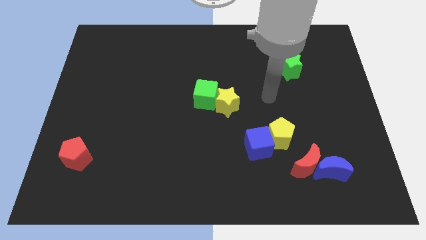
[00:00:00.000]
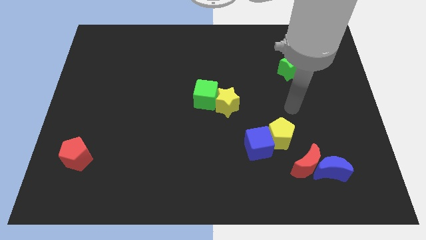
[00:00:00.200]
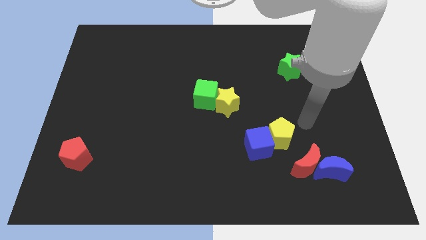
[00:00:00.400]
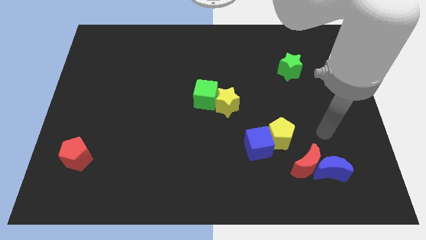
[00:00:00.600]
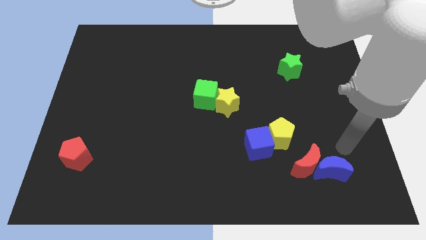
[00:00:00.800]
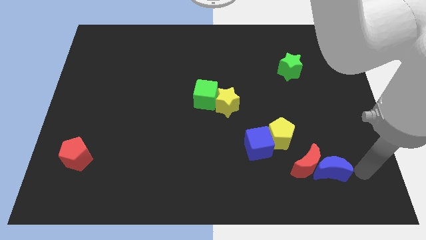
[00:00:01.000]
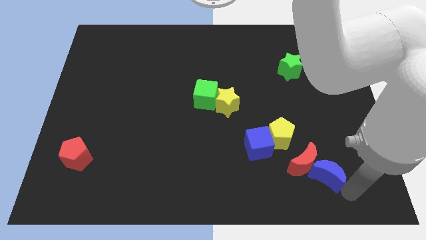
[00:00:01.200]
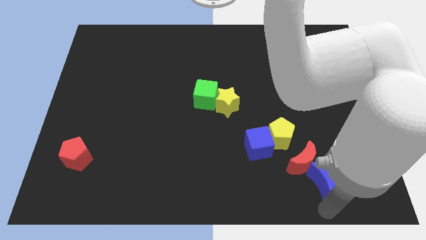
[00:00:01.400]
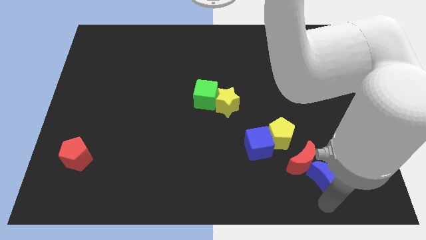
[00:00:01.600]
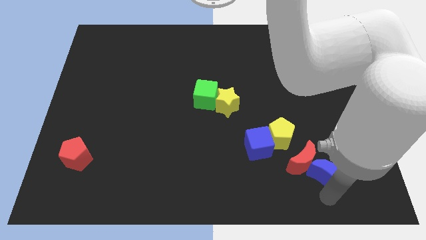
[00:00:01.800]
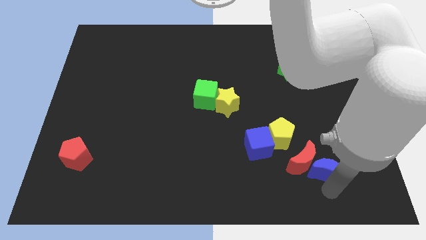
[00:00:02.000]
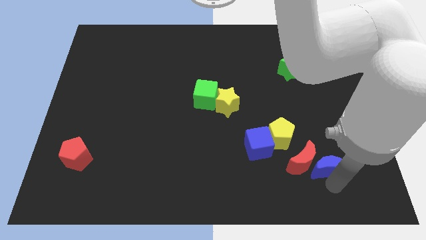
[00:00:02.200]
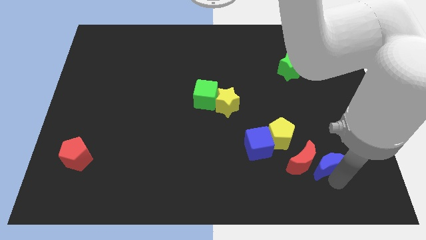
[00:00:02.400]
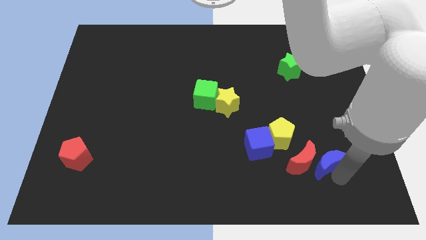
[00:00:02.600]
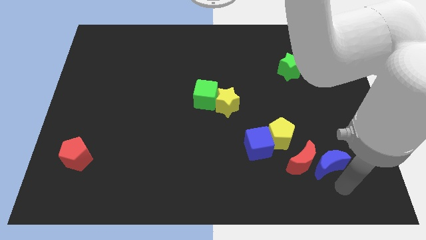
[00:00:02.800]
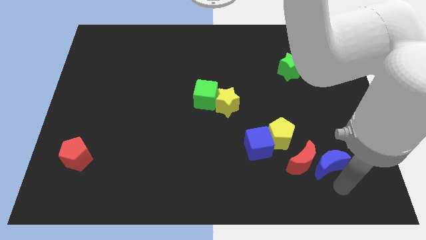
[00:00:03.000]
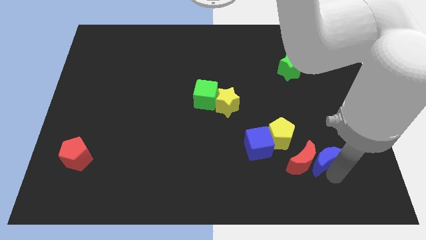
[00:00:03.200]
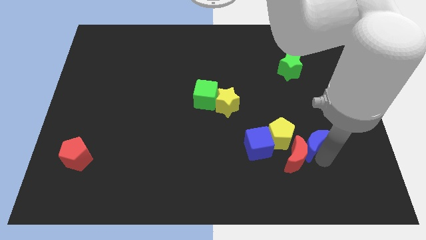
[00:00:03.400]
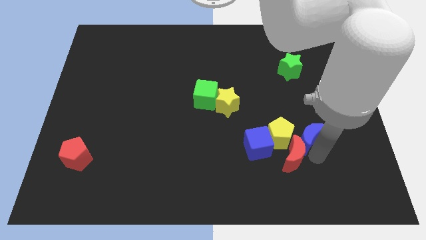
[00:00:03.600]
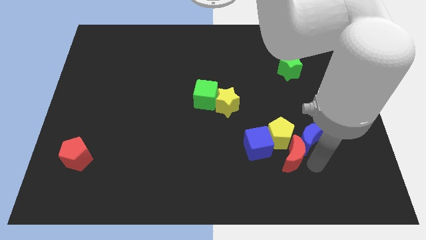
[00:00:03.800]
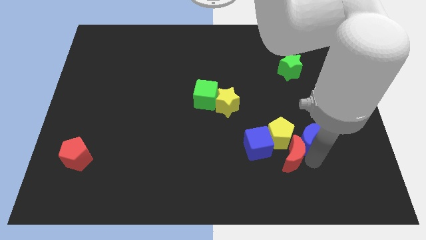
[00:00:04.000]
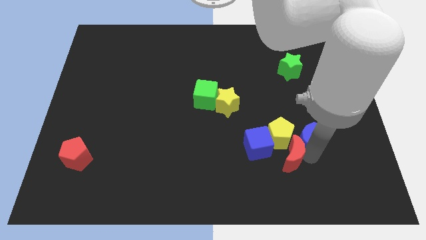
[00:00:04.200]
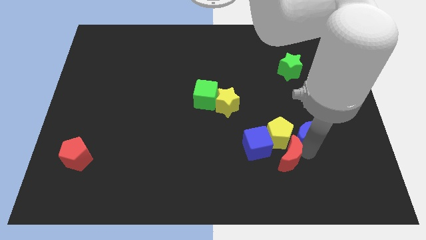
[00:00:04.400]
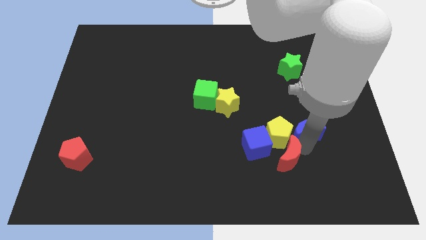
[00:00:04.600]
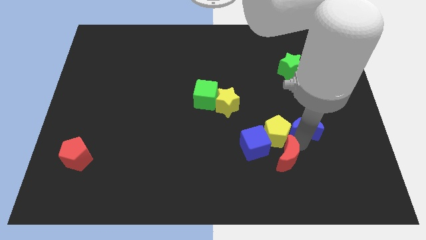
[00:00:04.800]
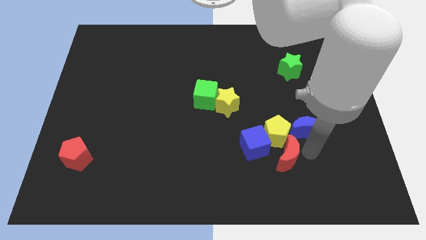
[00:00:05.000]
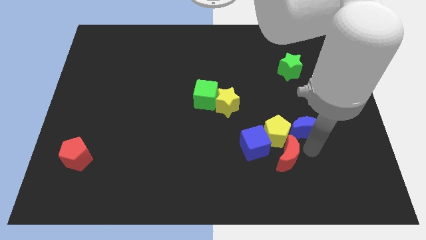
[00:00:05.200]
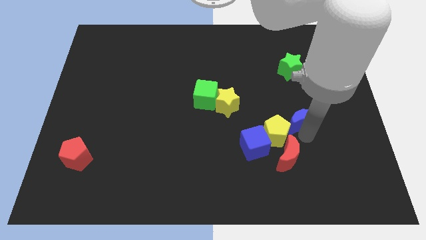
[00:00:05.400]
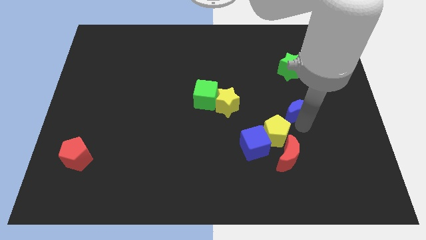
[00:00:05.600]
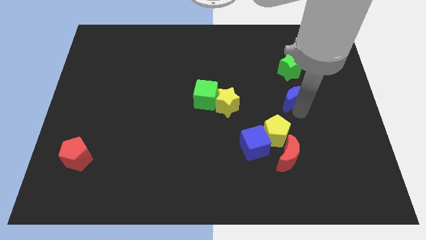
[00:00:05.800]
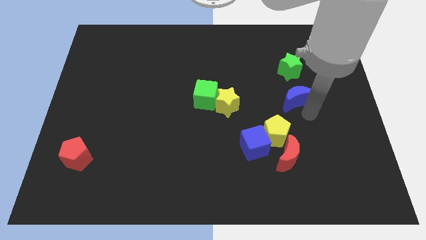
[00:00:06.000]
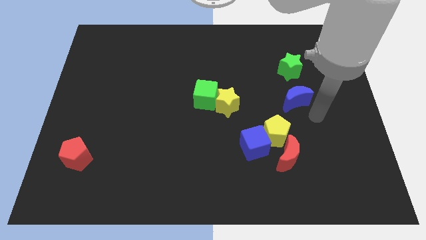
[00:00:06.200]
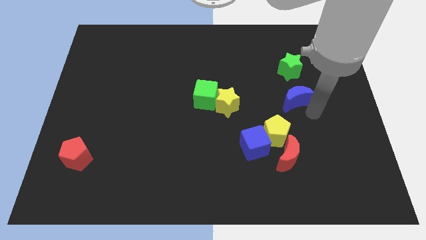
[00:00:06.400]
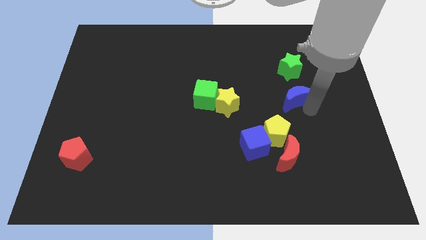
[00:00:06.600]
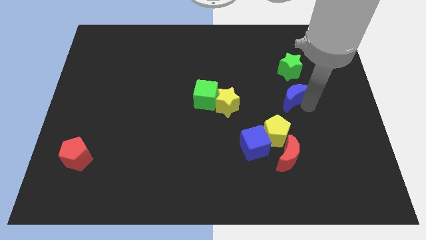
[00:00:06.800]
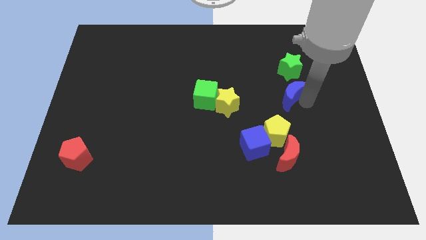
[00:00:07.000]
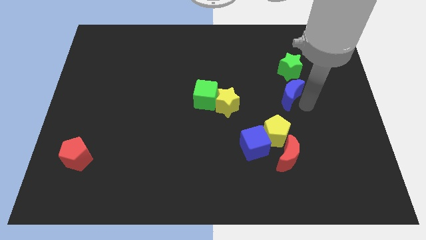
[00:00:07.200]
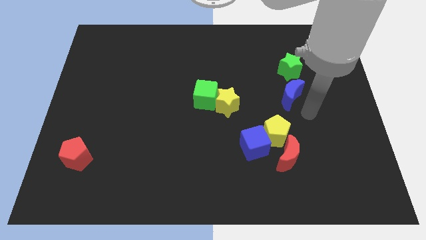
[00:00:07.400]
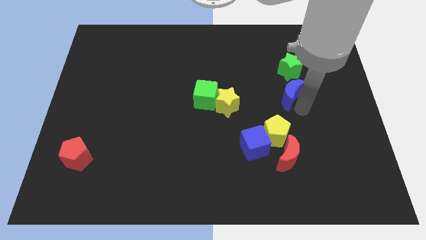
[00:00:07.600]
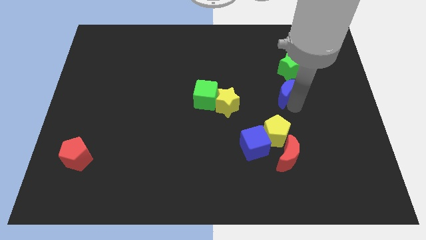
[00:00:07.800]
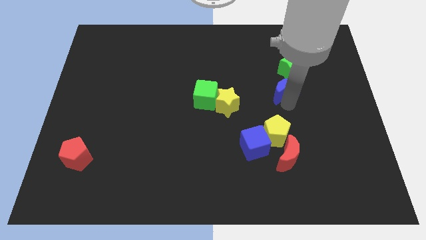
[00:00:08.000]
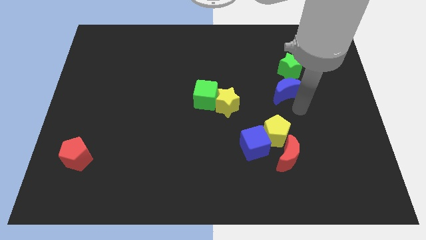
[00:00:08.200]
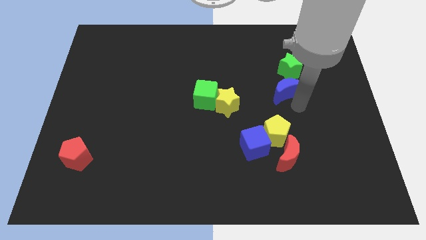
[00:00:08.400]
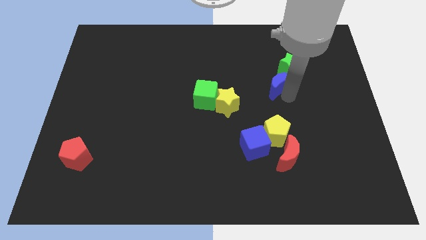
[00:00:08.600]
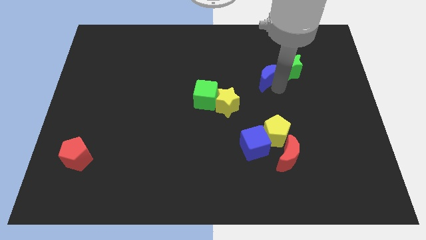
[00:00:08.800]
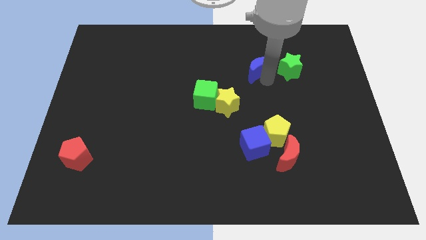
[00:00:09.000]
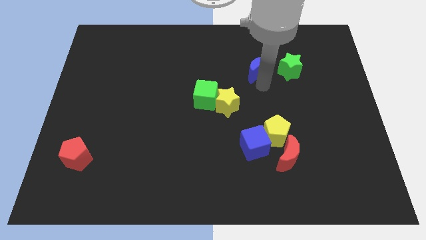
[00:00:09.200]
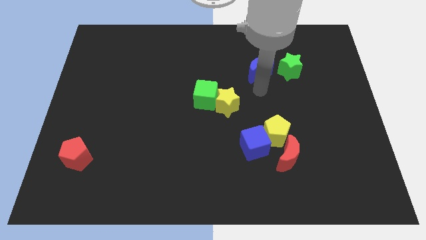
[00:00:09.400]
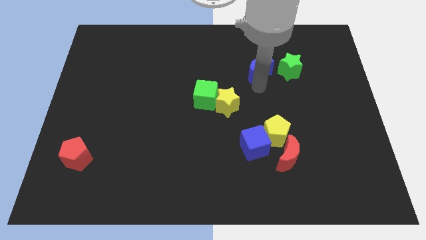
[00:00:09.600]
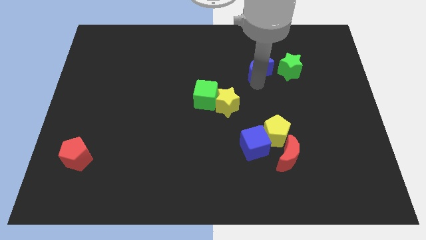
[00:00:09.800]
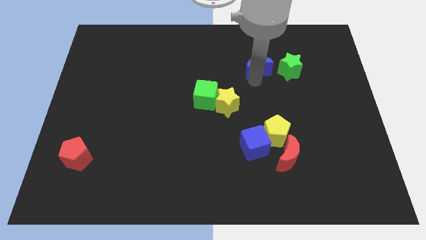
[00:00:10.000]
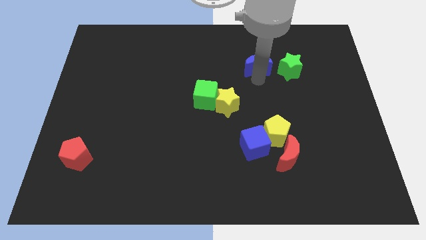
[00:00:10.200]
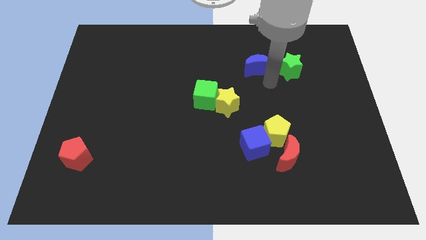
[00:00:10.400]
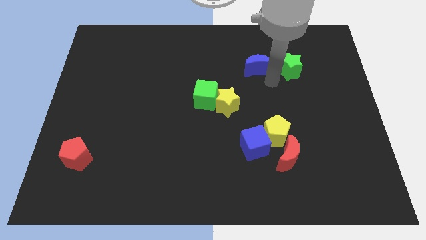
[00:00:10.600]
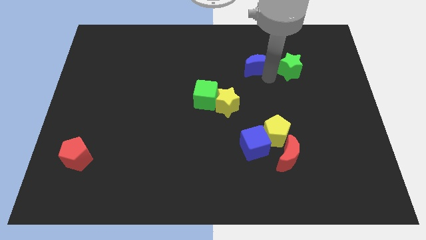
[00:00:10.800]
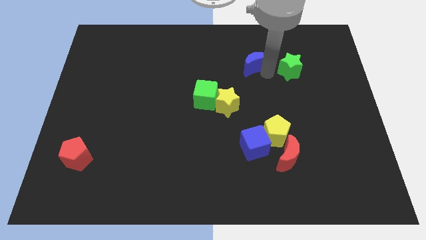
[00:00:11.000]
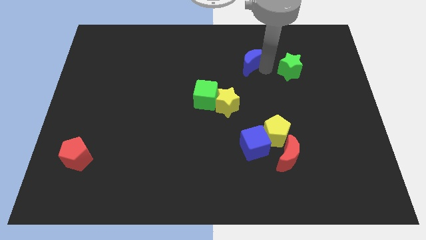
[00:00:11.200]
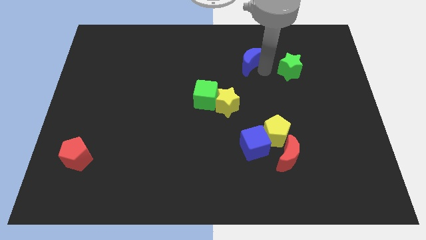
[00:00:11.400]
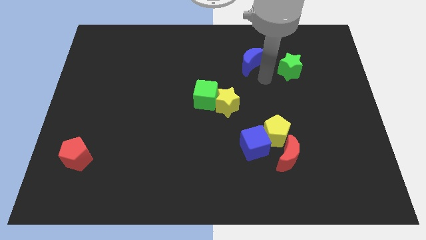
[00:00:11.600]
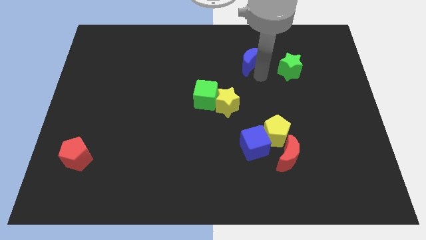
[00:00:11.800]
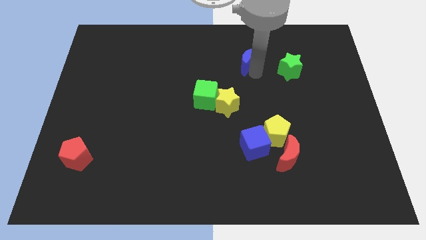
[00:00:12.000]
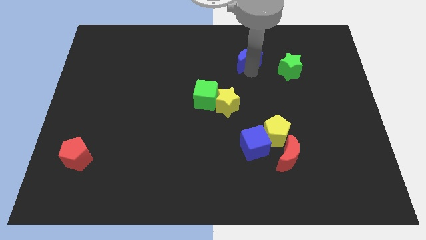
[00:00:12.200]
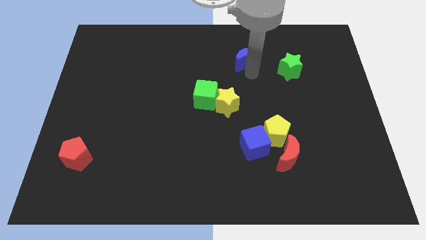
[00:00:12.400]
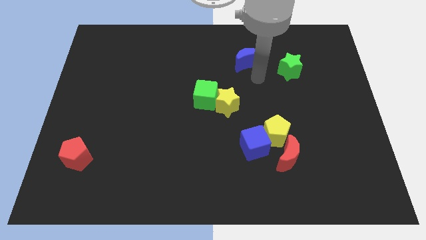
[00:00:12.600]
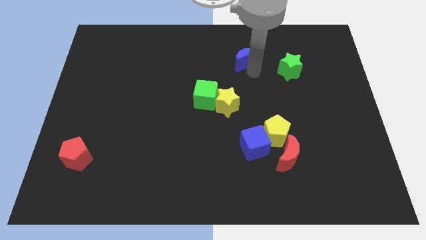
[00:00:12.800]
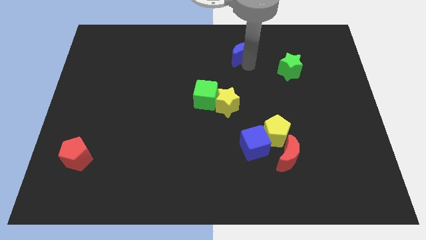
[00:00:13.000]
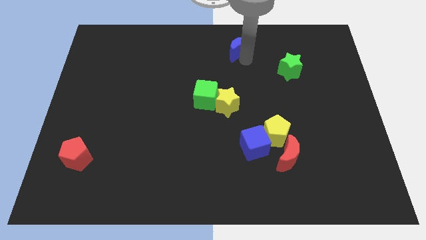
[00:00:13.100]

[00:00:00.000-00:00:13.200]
push the blue moon to the towards your base
